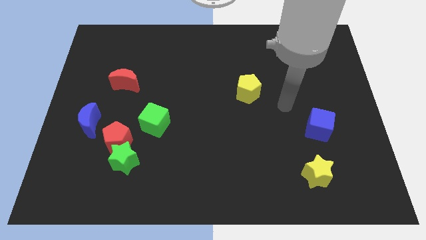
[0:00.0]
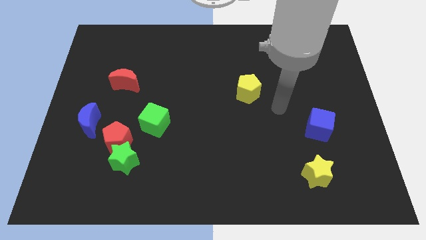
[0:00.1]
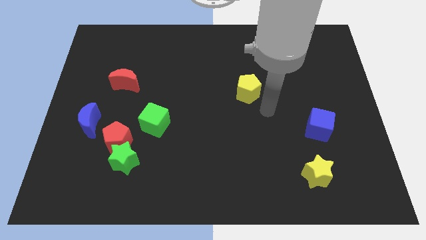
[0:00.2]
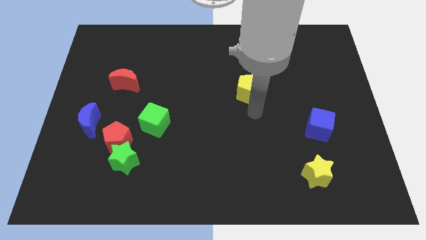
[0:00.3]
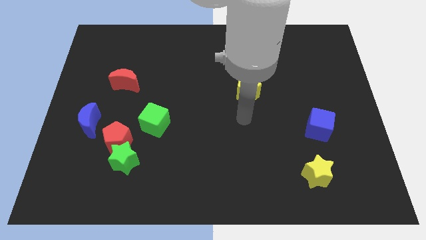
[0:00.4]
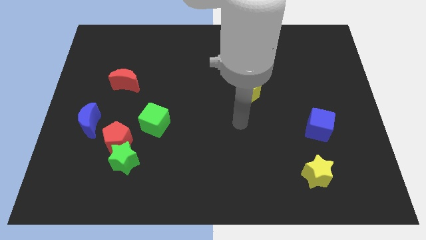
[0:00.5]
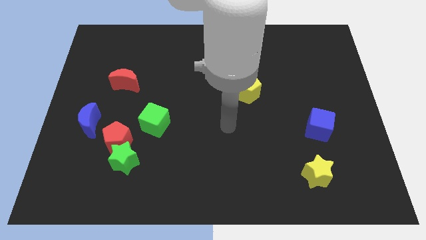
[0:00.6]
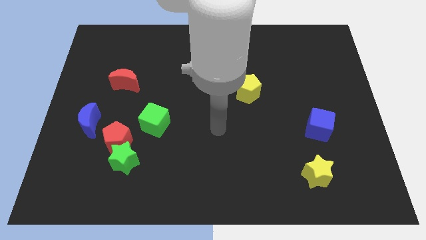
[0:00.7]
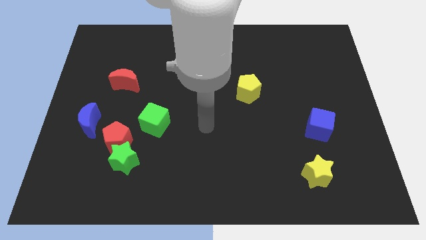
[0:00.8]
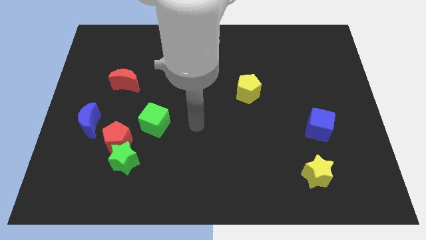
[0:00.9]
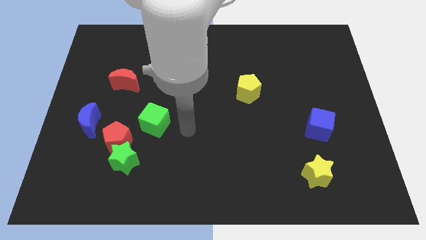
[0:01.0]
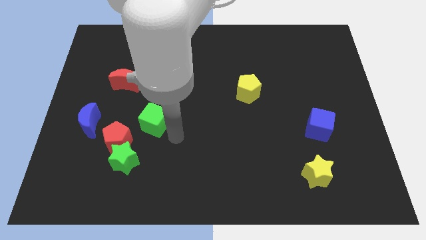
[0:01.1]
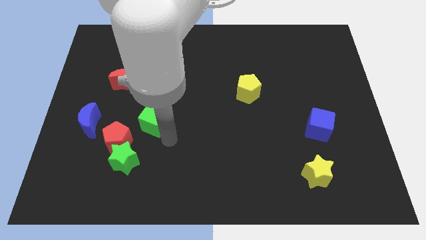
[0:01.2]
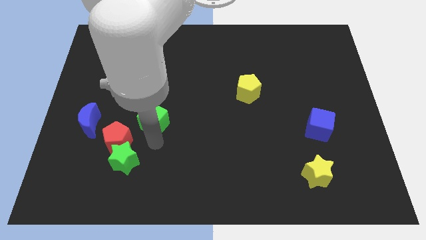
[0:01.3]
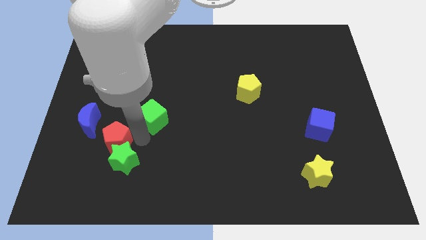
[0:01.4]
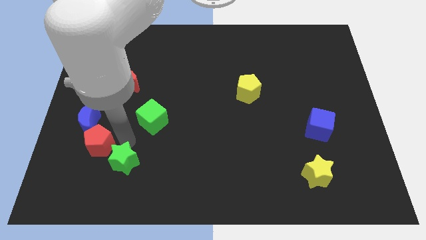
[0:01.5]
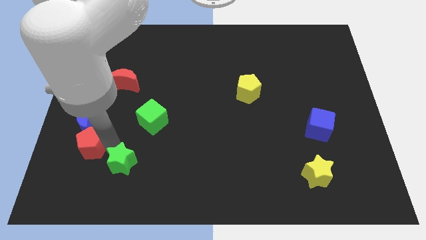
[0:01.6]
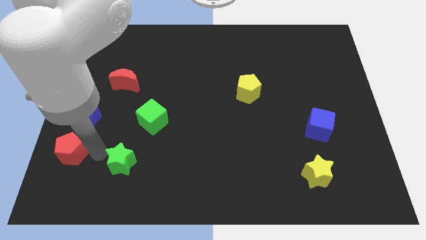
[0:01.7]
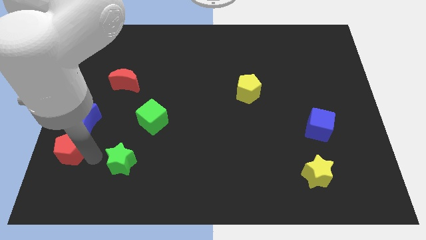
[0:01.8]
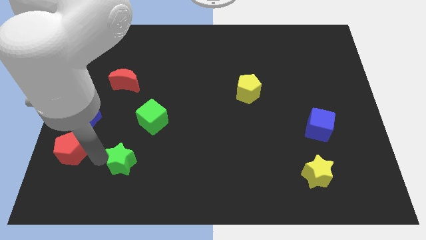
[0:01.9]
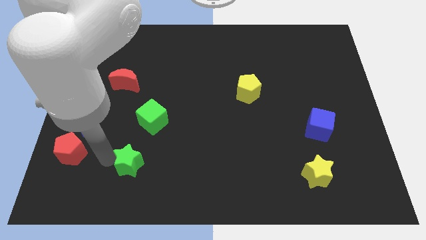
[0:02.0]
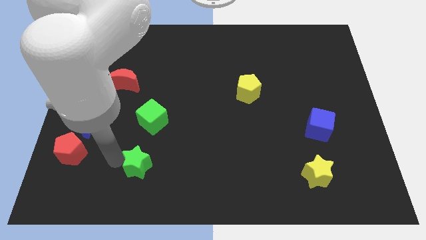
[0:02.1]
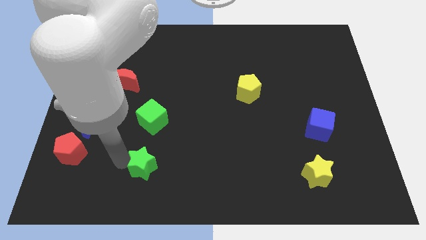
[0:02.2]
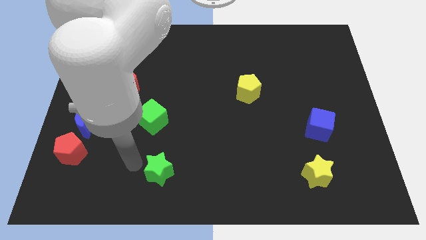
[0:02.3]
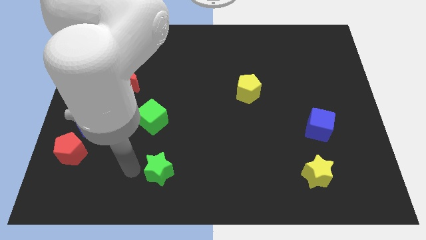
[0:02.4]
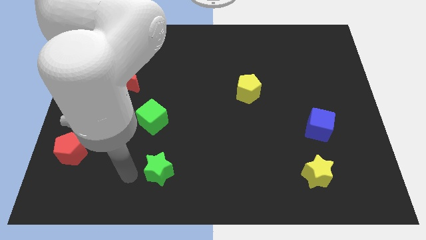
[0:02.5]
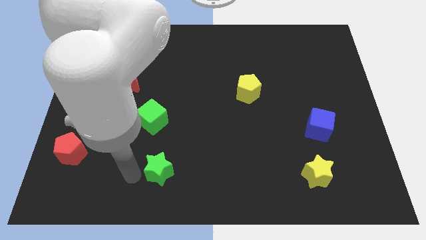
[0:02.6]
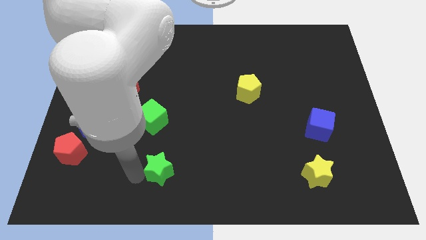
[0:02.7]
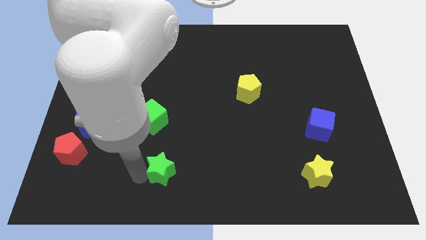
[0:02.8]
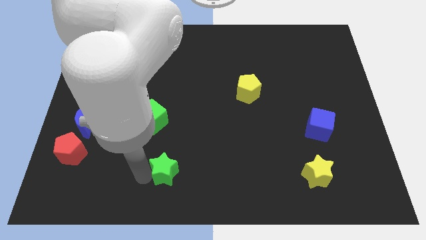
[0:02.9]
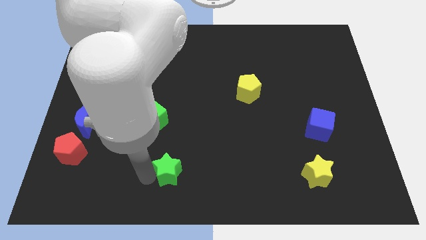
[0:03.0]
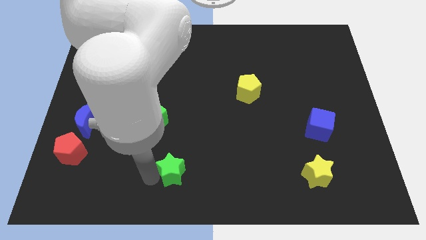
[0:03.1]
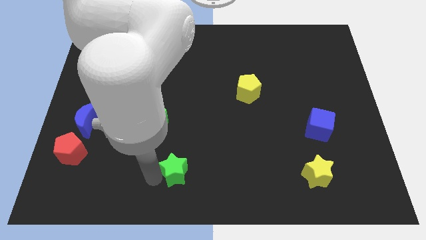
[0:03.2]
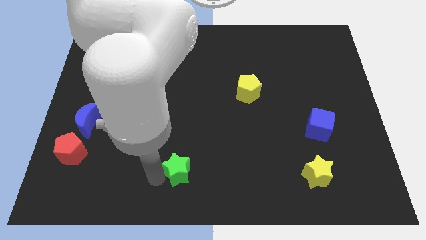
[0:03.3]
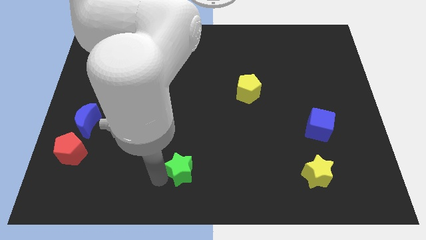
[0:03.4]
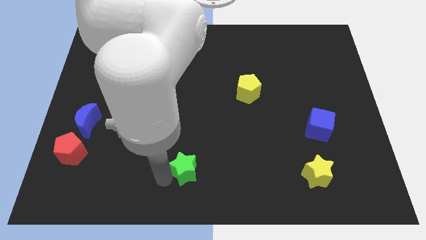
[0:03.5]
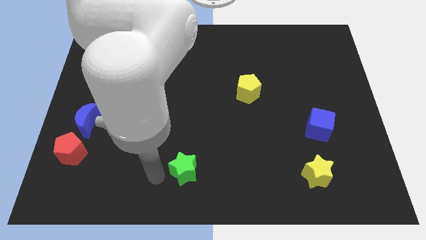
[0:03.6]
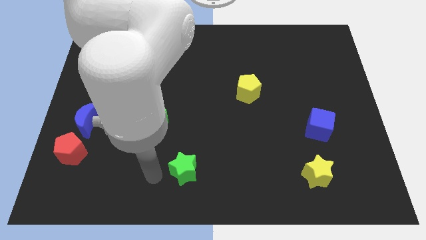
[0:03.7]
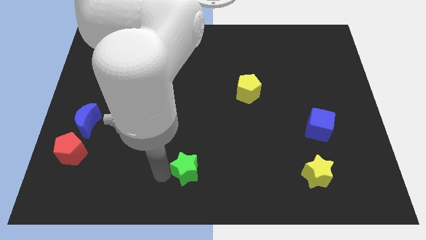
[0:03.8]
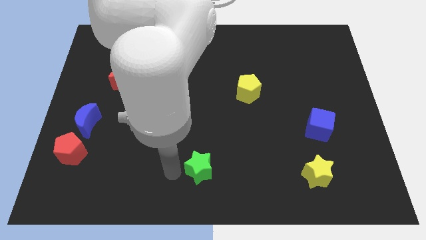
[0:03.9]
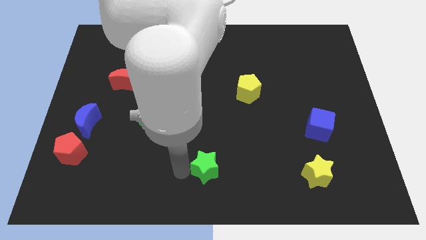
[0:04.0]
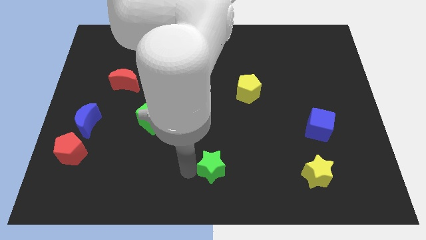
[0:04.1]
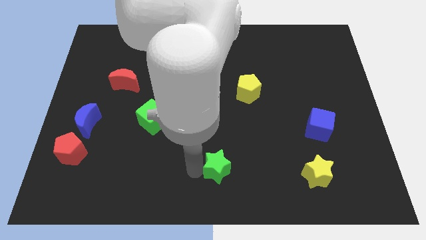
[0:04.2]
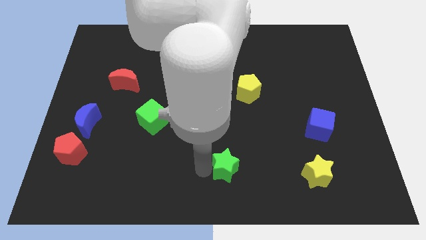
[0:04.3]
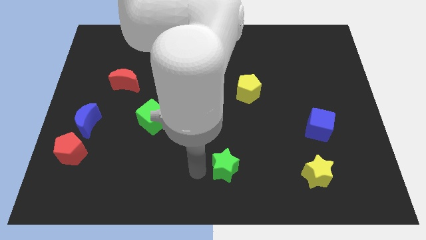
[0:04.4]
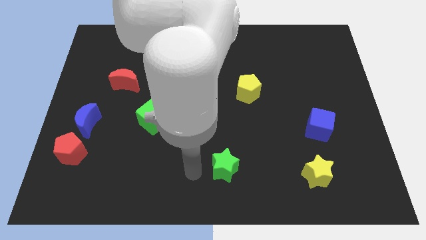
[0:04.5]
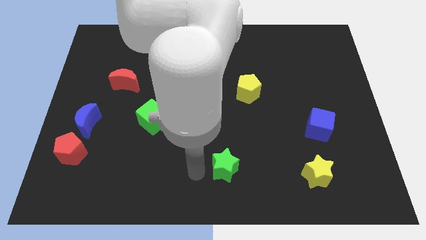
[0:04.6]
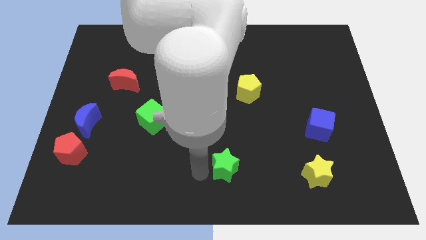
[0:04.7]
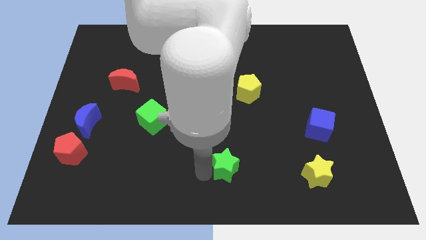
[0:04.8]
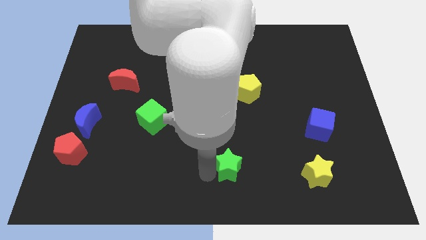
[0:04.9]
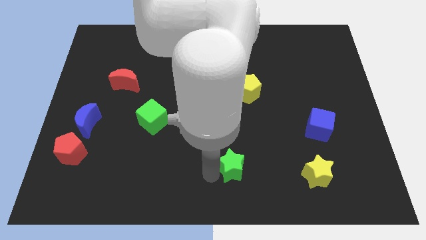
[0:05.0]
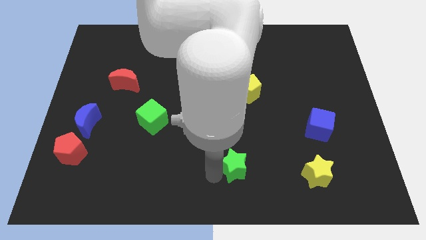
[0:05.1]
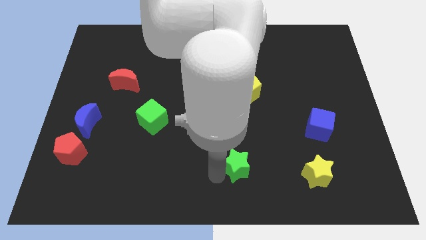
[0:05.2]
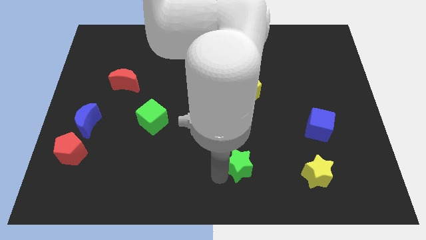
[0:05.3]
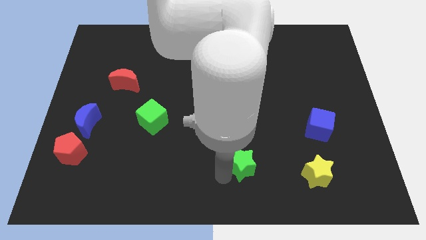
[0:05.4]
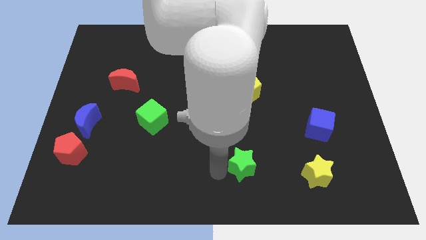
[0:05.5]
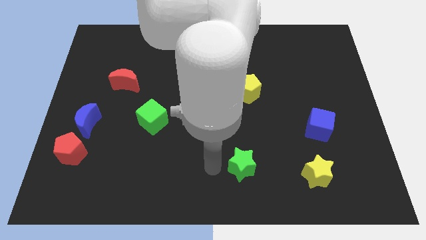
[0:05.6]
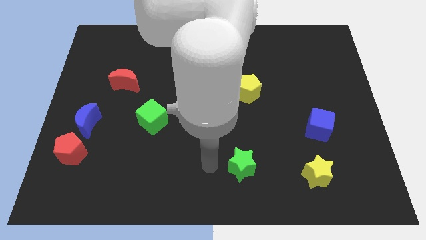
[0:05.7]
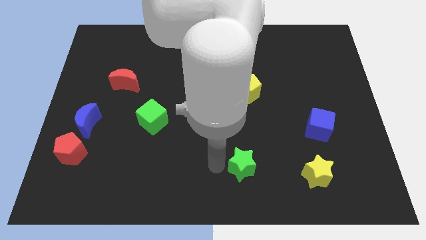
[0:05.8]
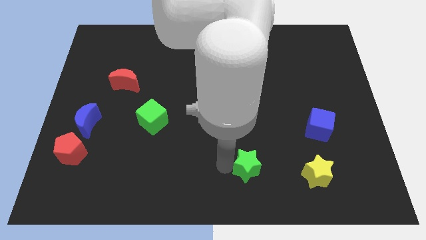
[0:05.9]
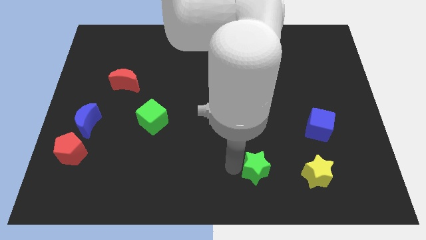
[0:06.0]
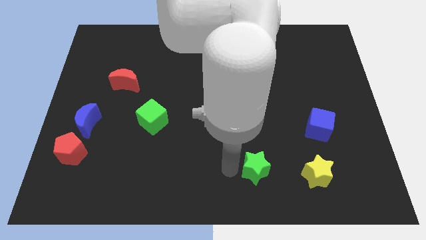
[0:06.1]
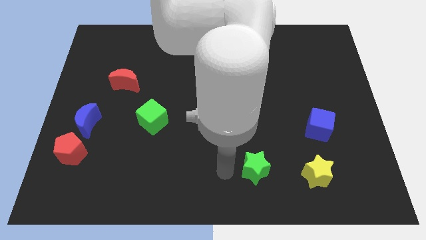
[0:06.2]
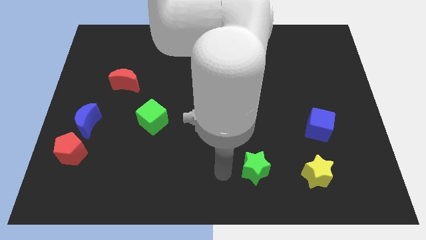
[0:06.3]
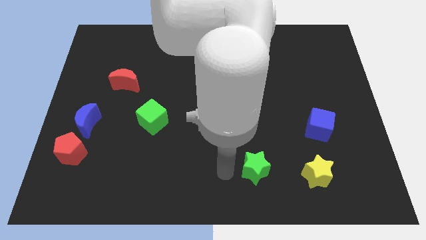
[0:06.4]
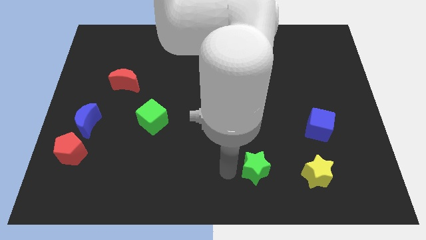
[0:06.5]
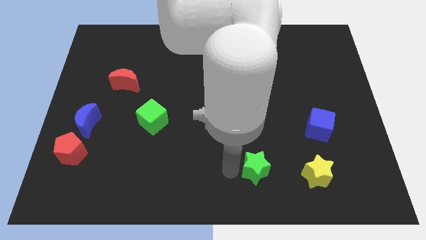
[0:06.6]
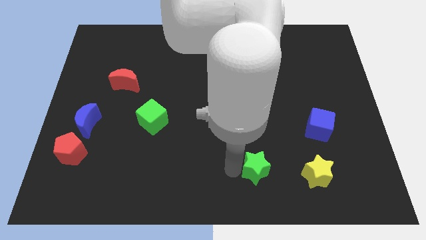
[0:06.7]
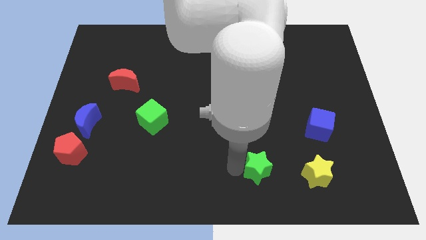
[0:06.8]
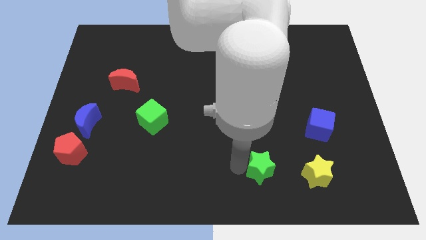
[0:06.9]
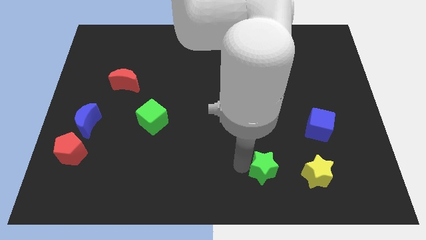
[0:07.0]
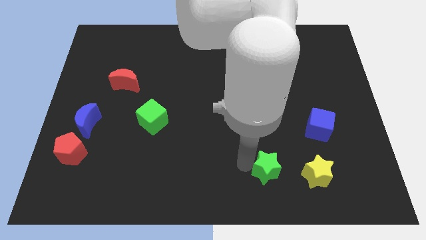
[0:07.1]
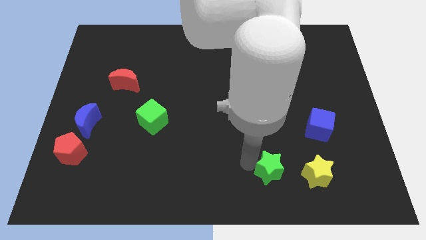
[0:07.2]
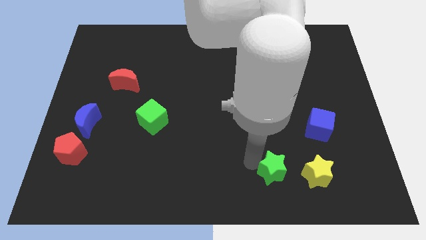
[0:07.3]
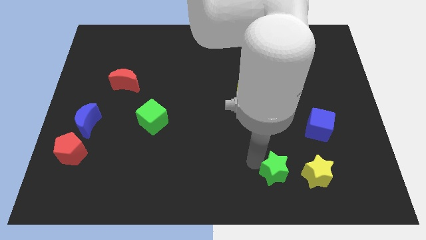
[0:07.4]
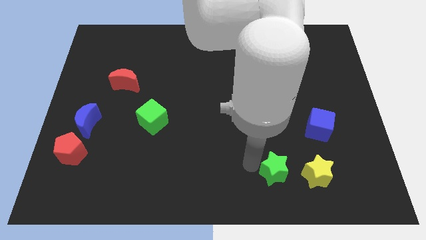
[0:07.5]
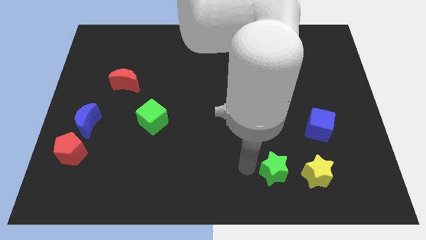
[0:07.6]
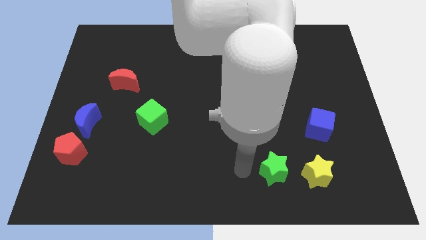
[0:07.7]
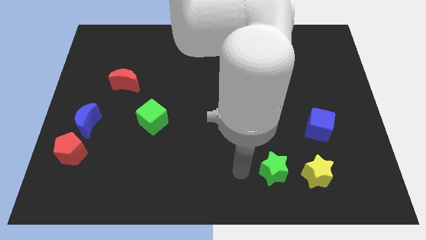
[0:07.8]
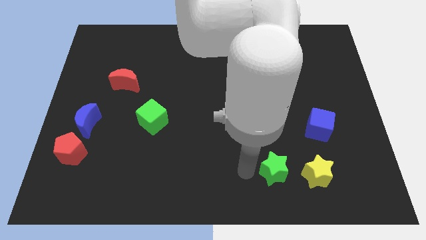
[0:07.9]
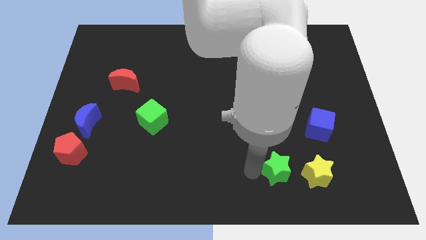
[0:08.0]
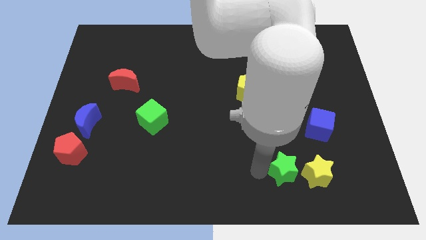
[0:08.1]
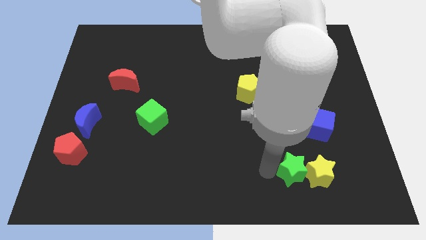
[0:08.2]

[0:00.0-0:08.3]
push the green star next to the yellow star
